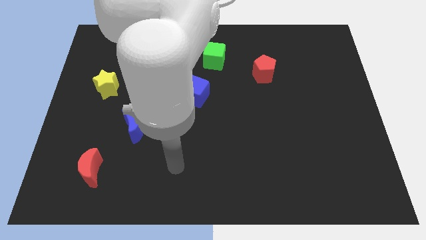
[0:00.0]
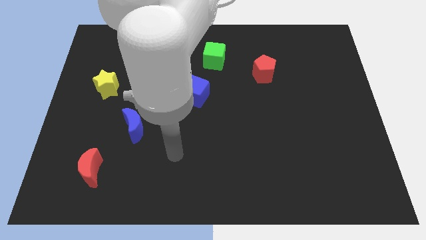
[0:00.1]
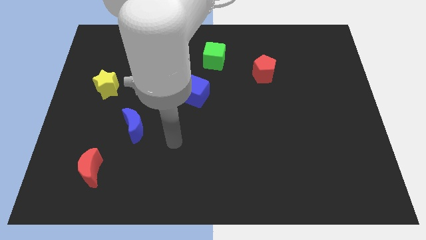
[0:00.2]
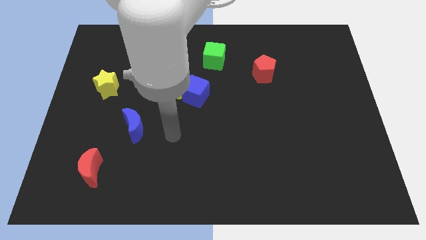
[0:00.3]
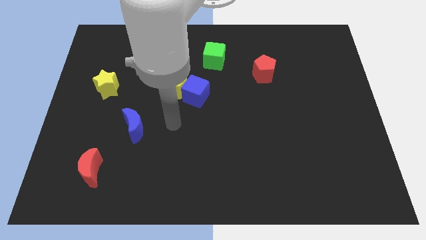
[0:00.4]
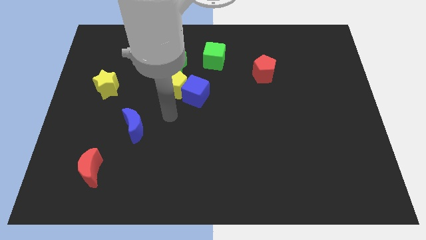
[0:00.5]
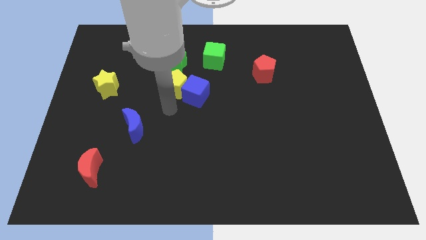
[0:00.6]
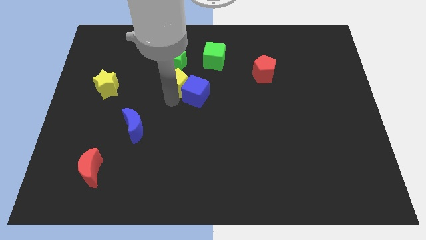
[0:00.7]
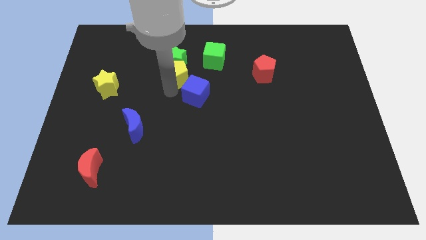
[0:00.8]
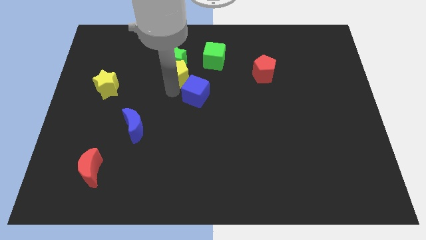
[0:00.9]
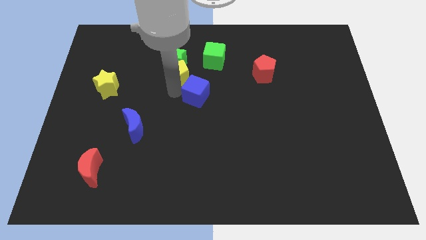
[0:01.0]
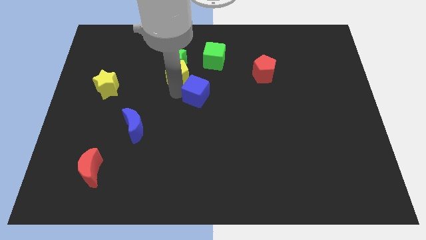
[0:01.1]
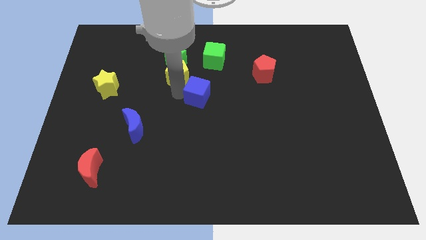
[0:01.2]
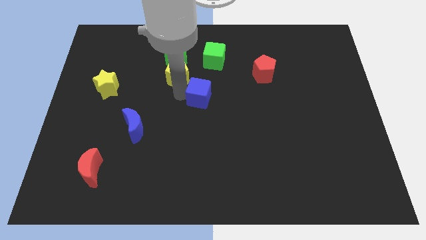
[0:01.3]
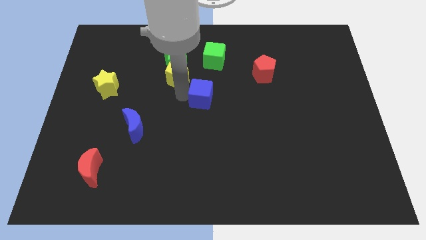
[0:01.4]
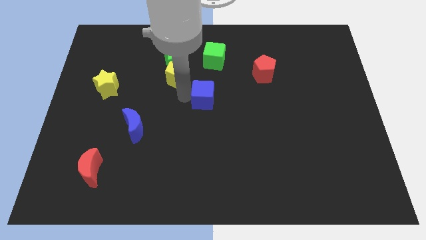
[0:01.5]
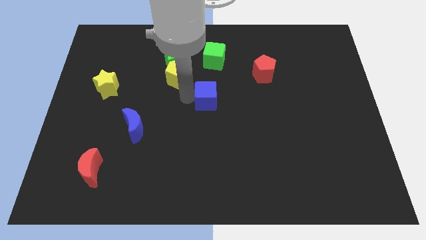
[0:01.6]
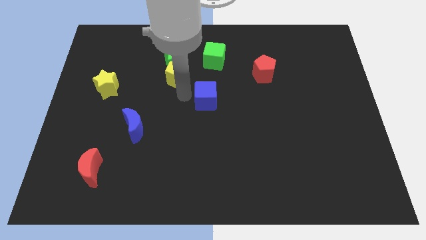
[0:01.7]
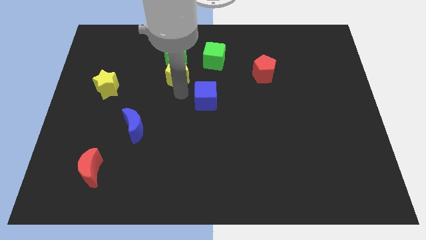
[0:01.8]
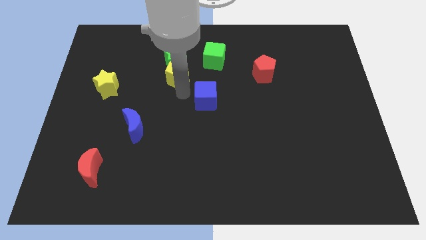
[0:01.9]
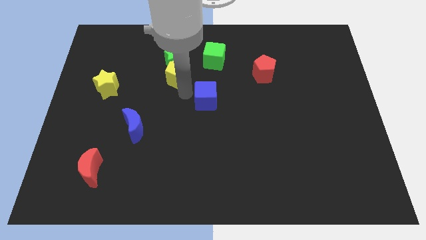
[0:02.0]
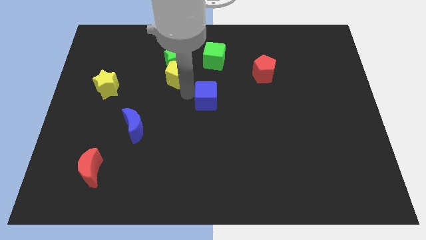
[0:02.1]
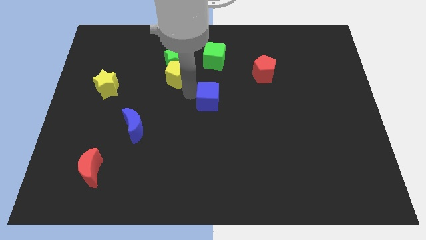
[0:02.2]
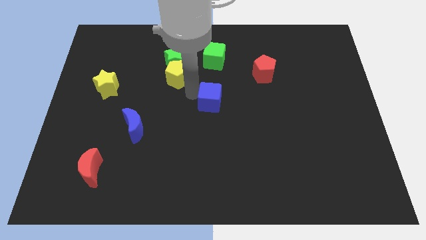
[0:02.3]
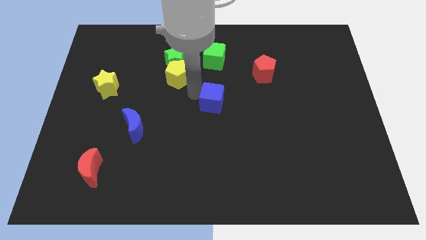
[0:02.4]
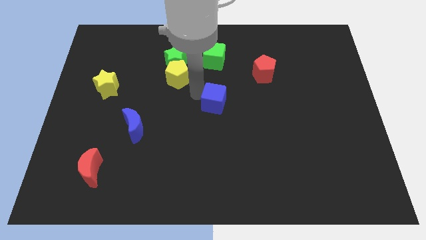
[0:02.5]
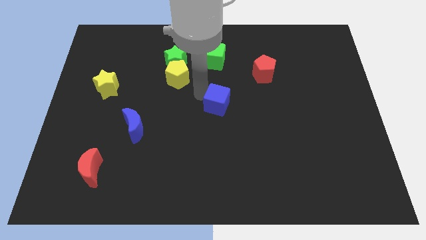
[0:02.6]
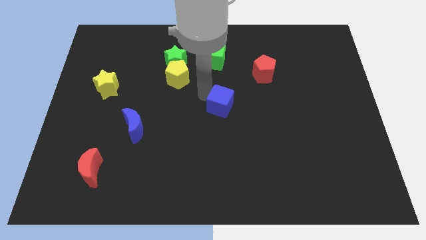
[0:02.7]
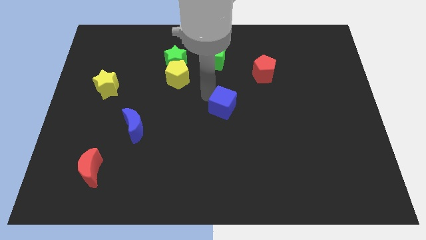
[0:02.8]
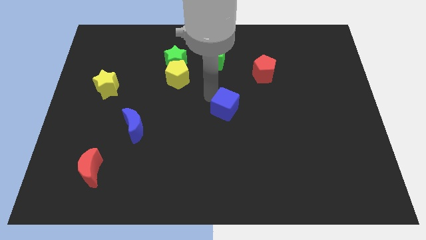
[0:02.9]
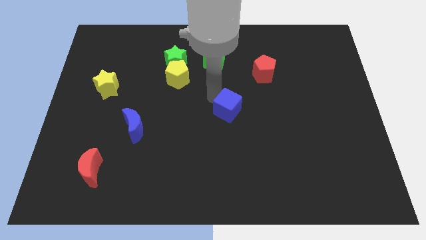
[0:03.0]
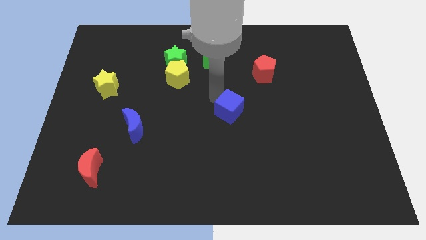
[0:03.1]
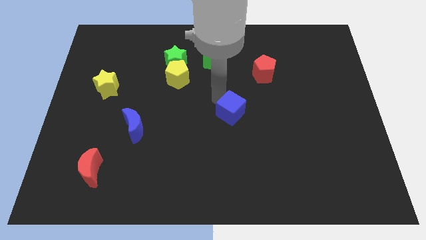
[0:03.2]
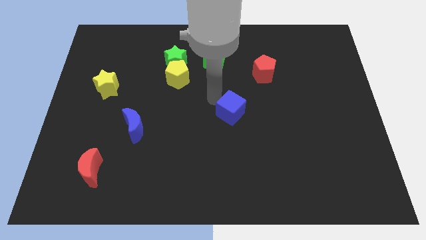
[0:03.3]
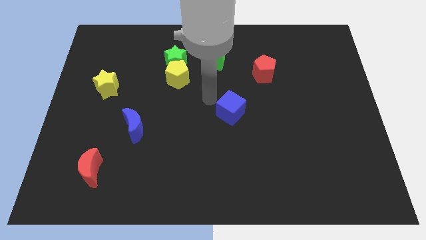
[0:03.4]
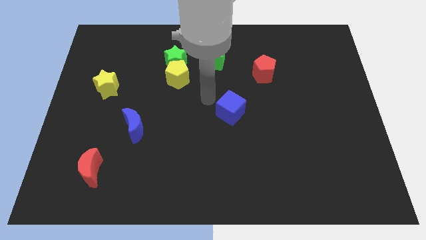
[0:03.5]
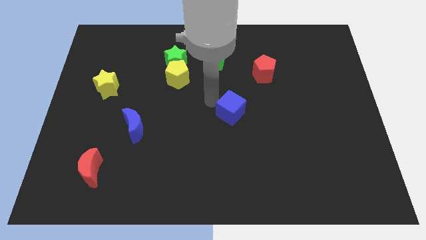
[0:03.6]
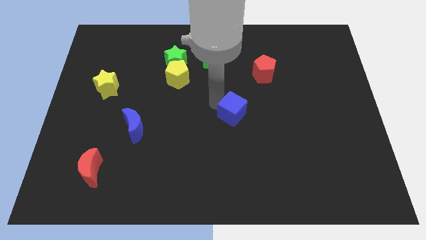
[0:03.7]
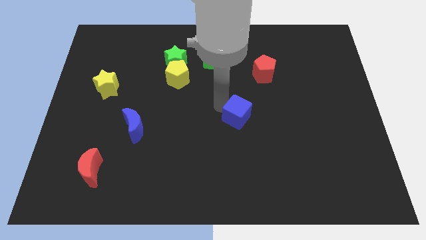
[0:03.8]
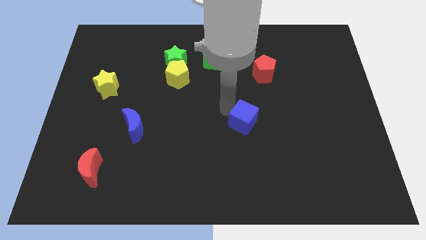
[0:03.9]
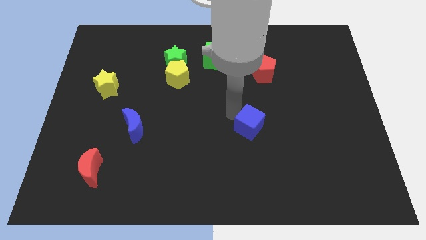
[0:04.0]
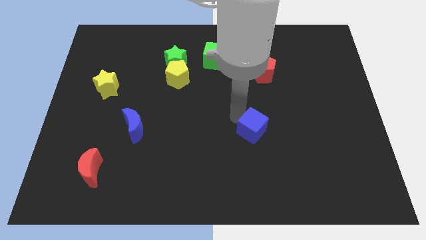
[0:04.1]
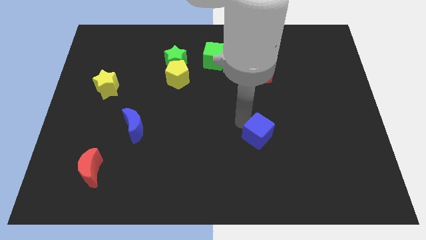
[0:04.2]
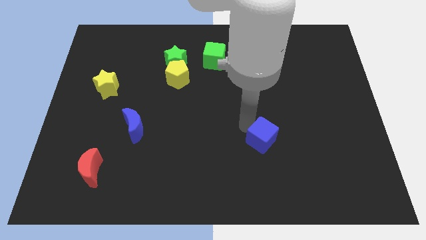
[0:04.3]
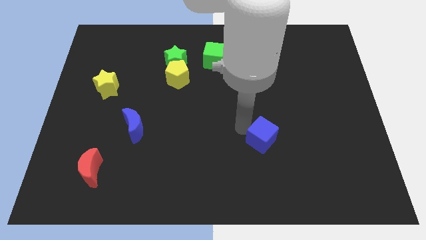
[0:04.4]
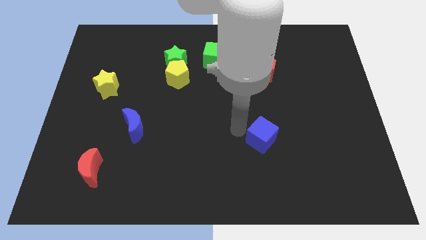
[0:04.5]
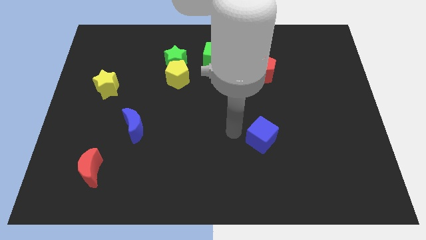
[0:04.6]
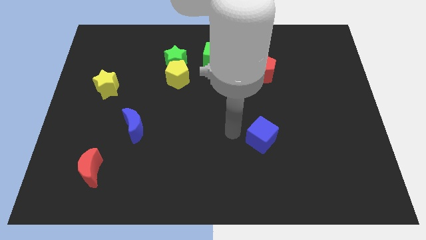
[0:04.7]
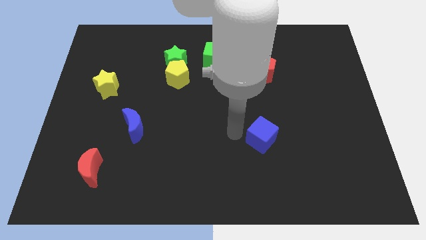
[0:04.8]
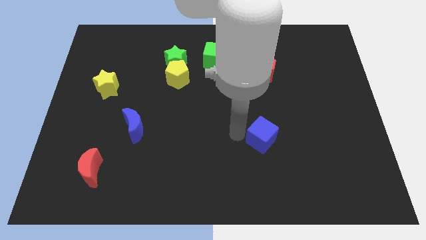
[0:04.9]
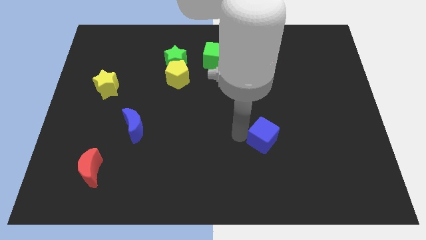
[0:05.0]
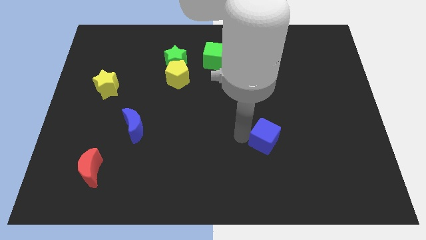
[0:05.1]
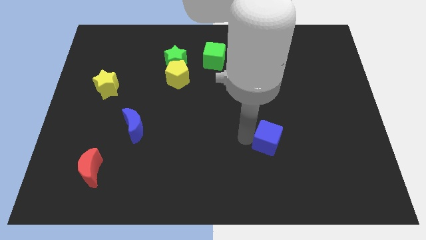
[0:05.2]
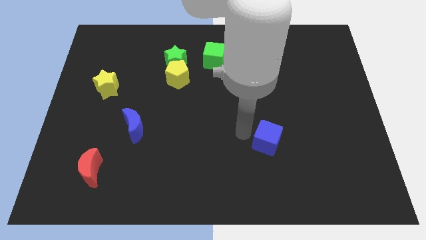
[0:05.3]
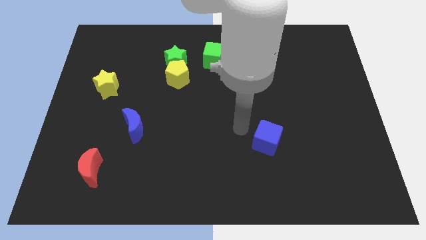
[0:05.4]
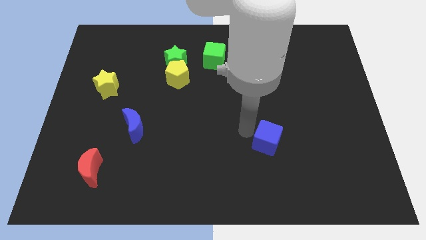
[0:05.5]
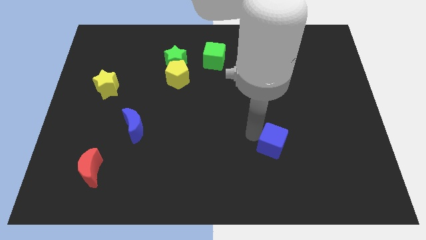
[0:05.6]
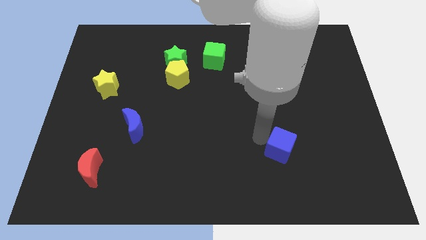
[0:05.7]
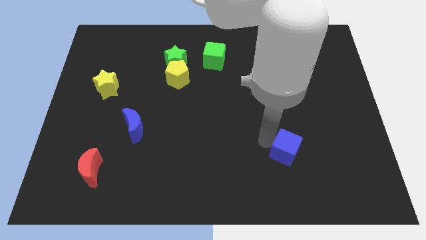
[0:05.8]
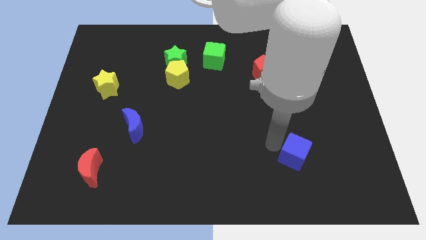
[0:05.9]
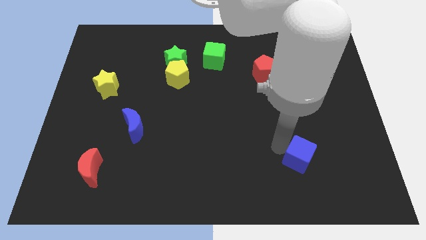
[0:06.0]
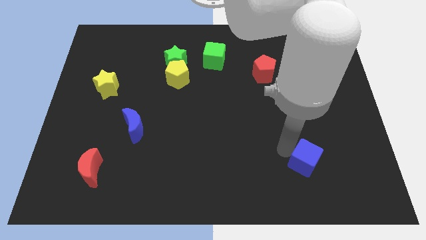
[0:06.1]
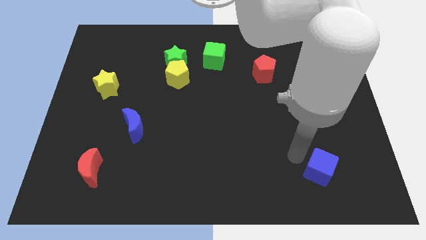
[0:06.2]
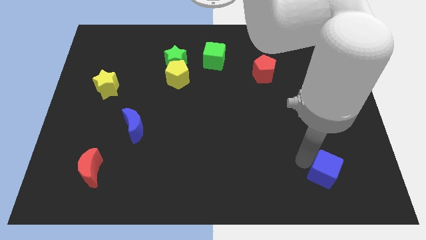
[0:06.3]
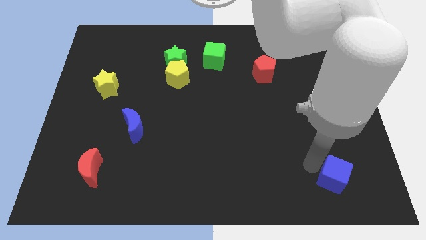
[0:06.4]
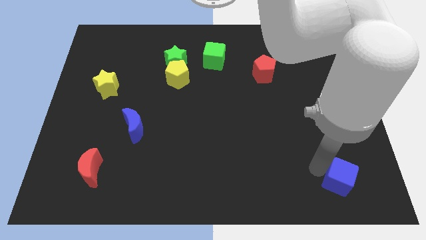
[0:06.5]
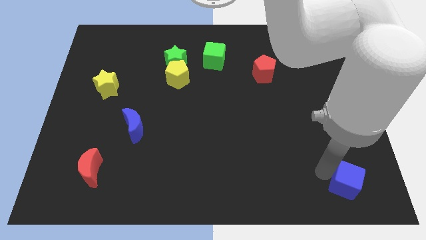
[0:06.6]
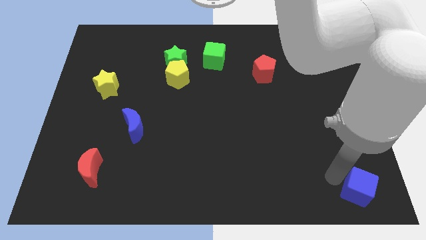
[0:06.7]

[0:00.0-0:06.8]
slide the blue cube to the lower right corner
